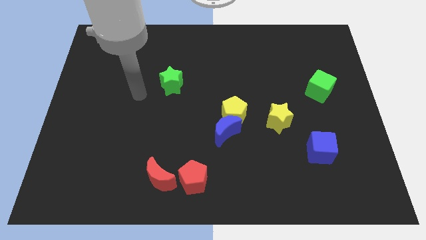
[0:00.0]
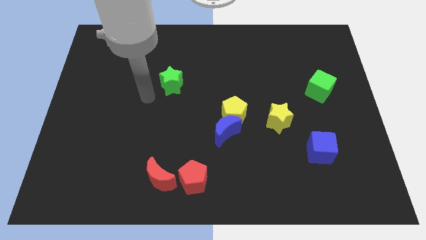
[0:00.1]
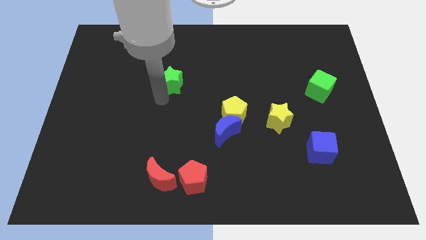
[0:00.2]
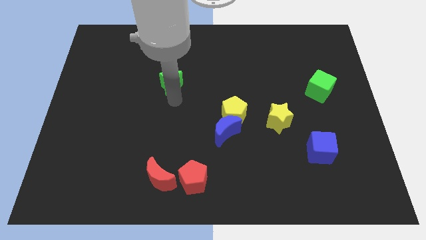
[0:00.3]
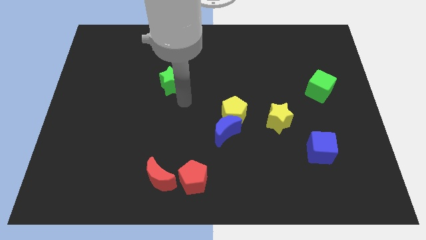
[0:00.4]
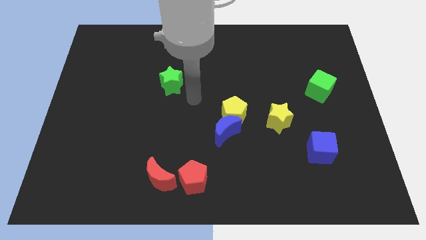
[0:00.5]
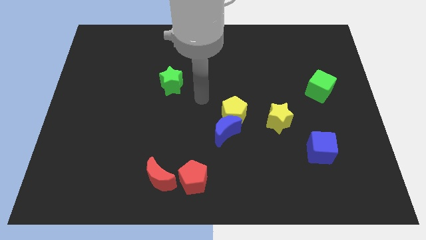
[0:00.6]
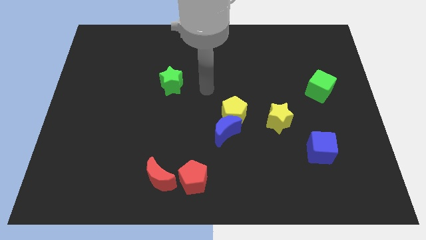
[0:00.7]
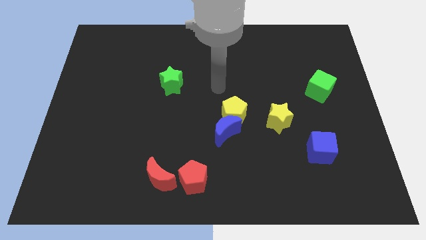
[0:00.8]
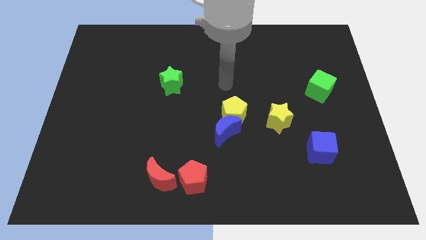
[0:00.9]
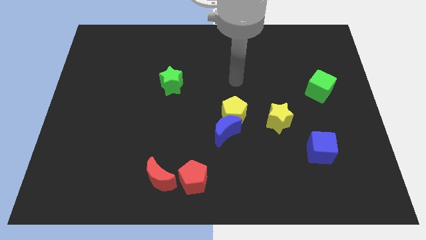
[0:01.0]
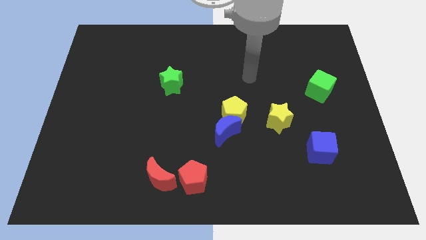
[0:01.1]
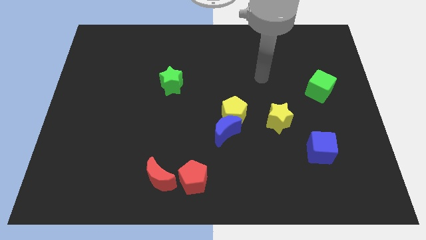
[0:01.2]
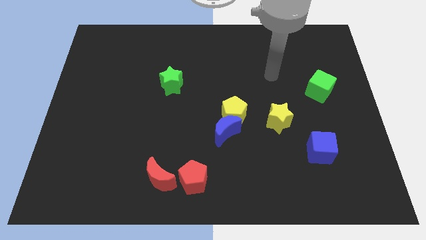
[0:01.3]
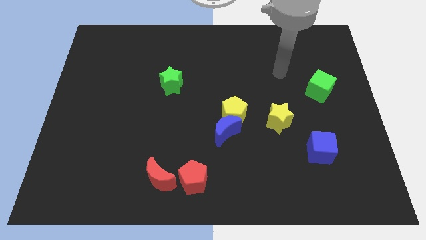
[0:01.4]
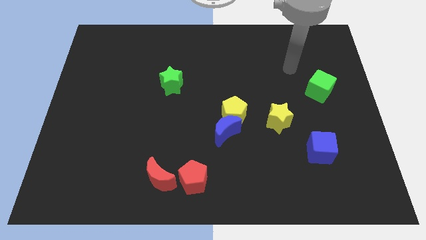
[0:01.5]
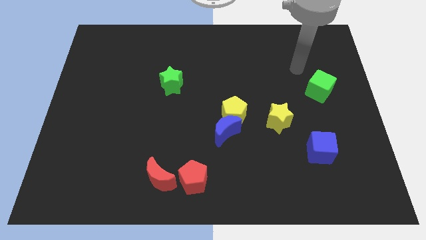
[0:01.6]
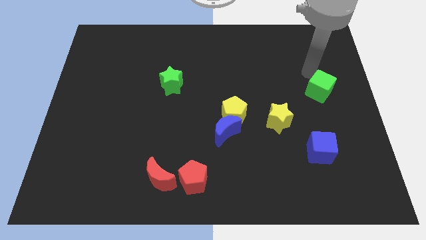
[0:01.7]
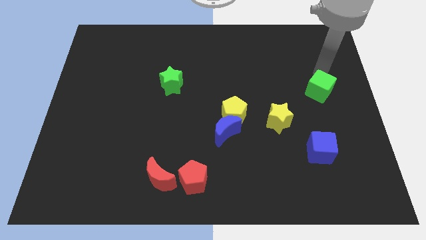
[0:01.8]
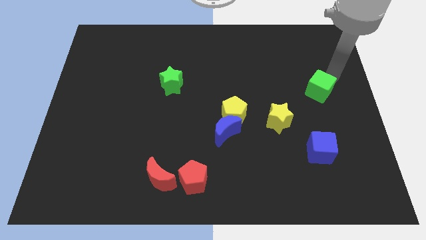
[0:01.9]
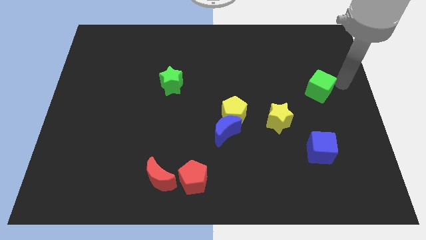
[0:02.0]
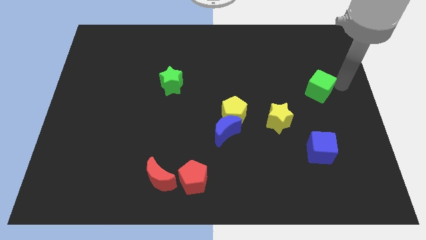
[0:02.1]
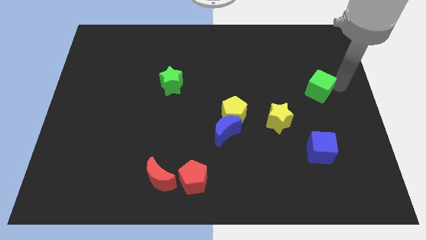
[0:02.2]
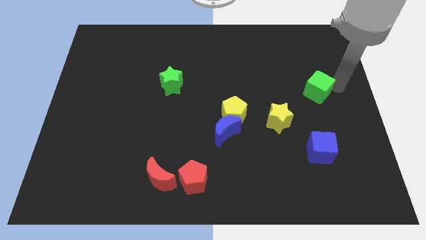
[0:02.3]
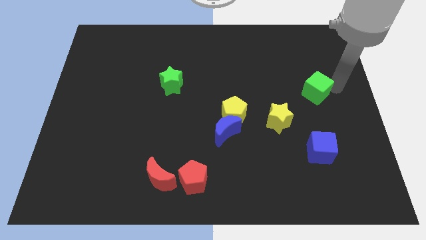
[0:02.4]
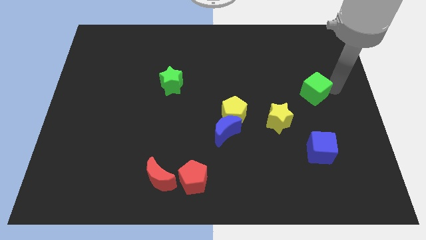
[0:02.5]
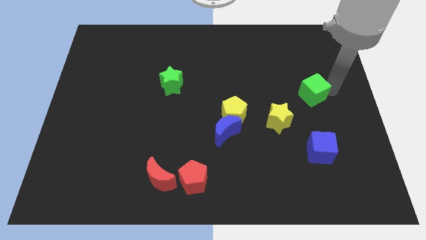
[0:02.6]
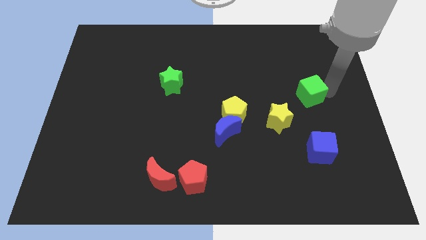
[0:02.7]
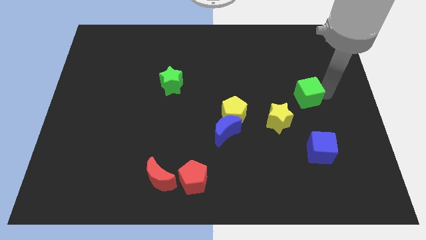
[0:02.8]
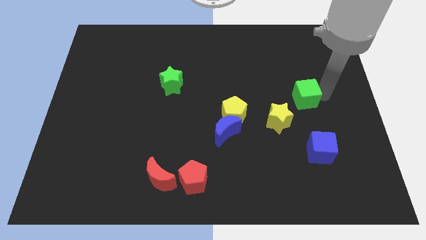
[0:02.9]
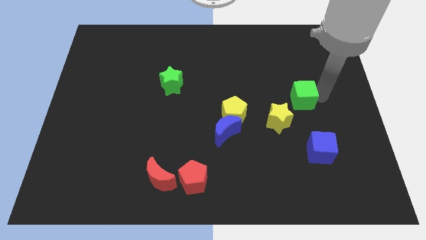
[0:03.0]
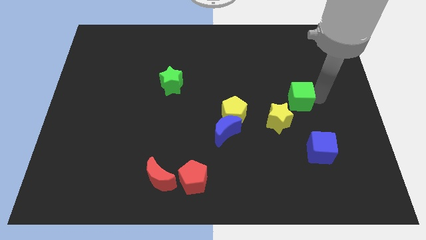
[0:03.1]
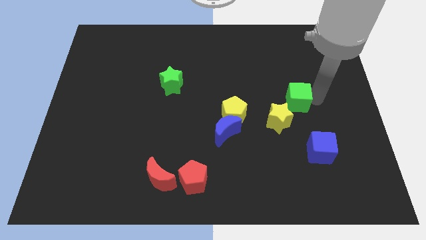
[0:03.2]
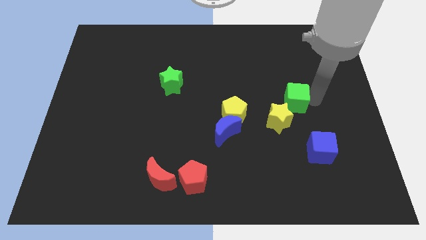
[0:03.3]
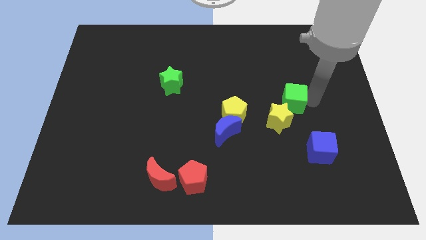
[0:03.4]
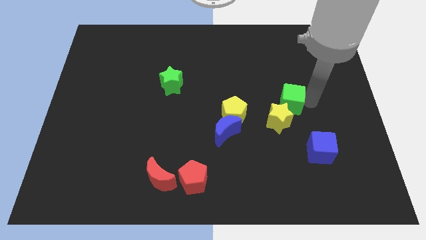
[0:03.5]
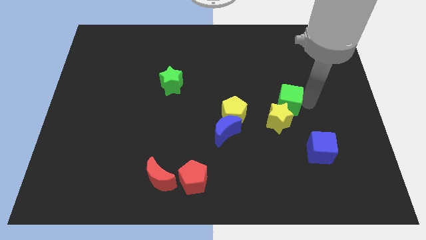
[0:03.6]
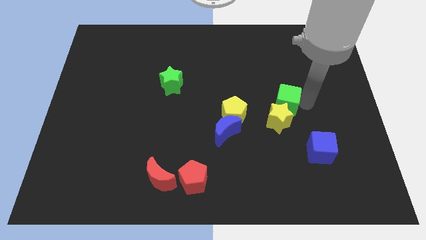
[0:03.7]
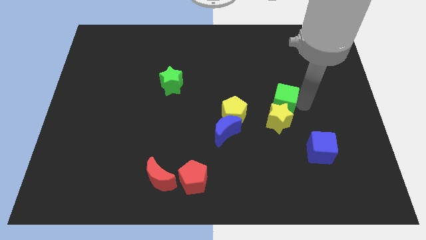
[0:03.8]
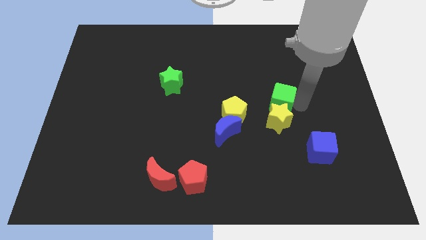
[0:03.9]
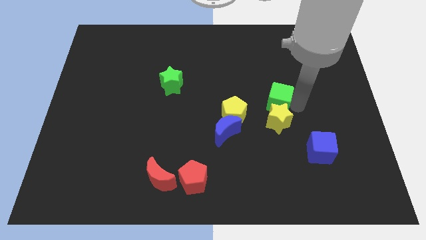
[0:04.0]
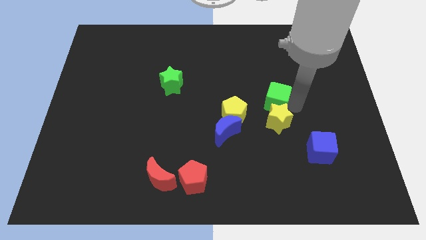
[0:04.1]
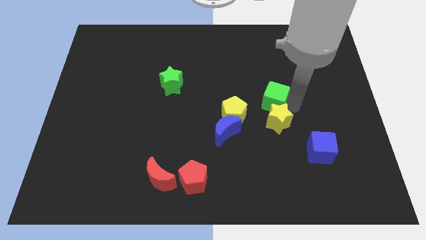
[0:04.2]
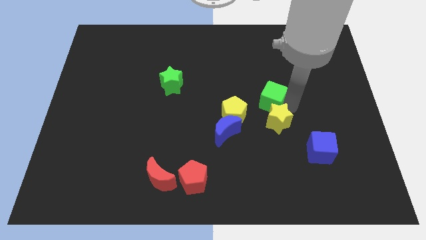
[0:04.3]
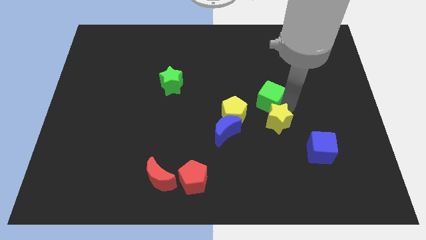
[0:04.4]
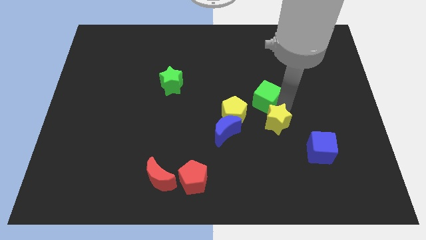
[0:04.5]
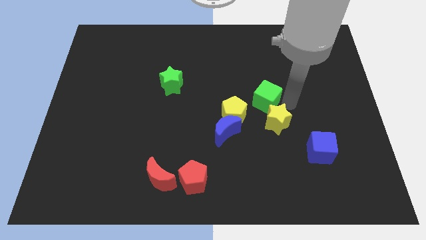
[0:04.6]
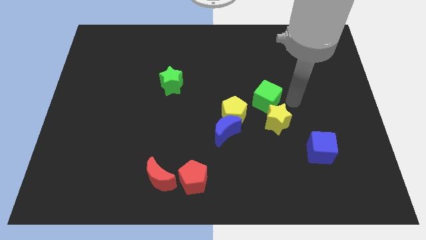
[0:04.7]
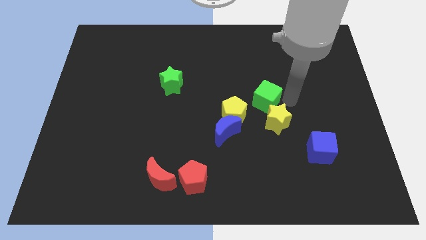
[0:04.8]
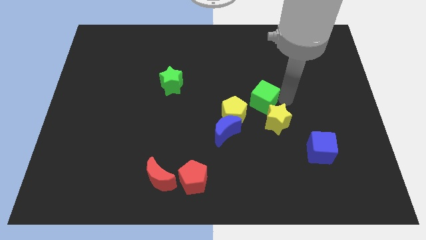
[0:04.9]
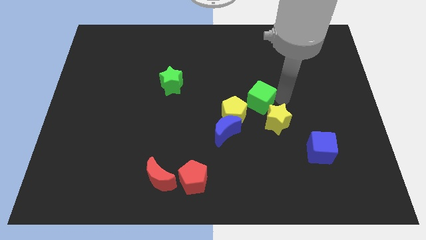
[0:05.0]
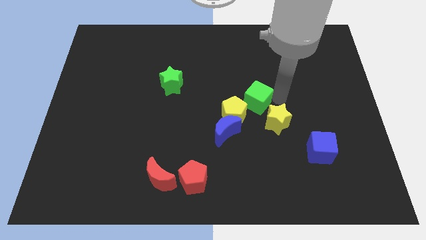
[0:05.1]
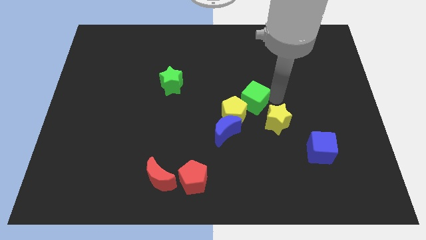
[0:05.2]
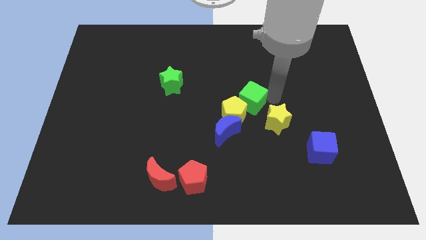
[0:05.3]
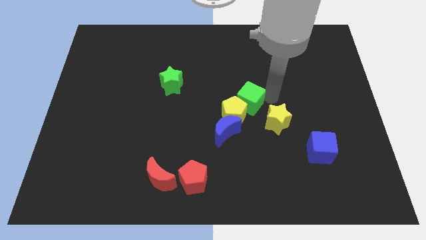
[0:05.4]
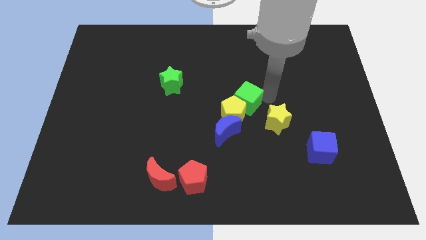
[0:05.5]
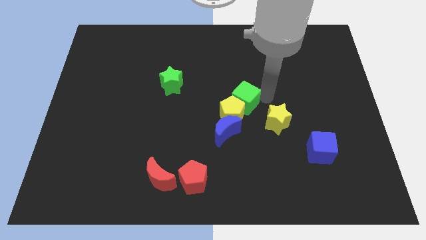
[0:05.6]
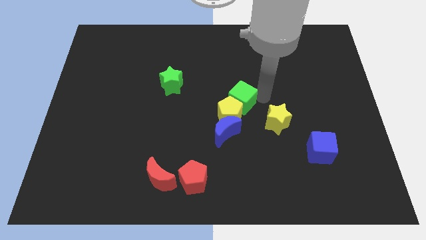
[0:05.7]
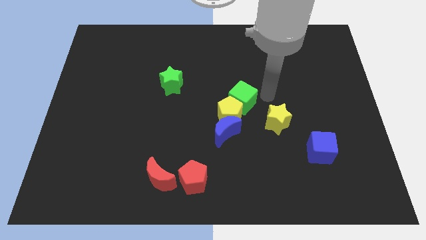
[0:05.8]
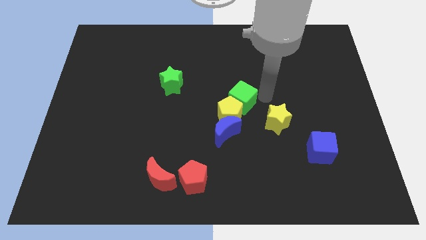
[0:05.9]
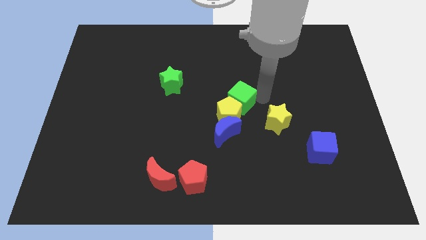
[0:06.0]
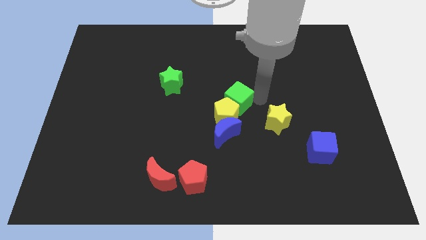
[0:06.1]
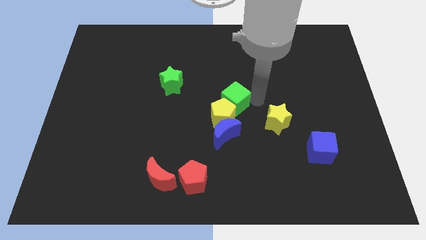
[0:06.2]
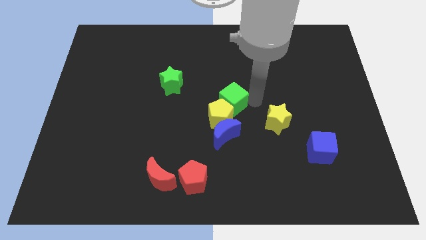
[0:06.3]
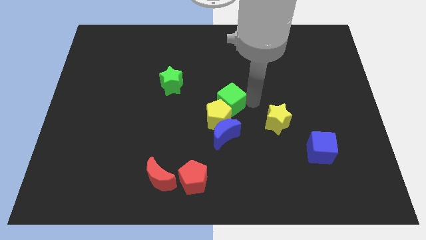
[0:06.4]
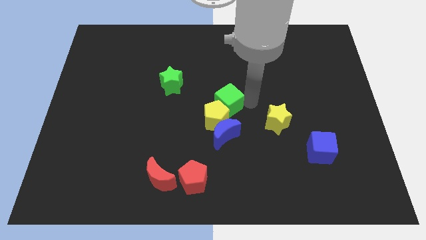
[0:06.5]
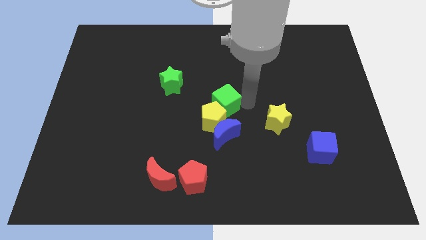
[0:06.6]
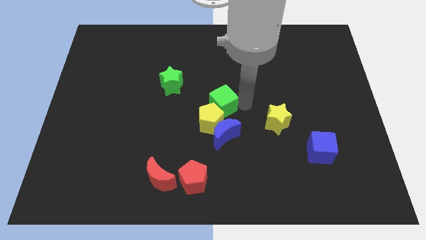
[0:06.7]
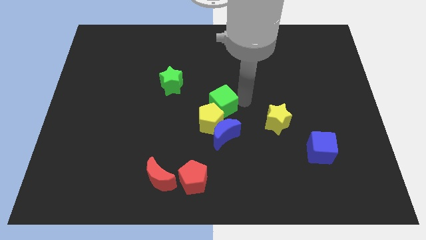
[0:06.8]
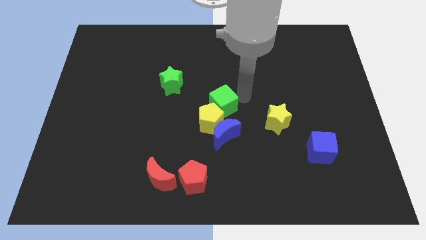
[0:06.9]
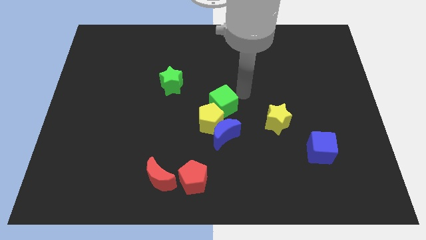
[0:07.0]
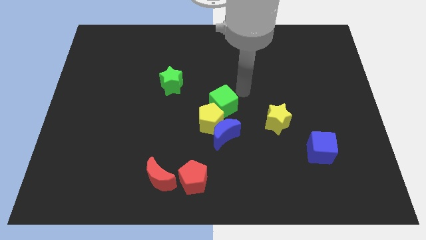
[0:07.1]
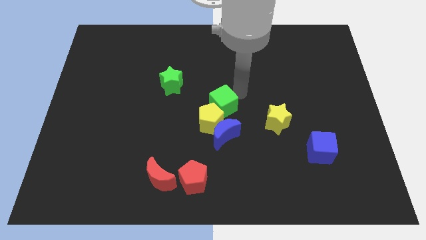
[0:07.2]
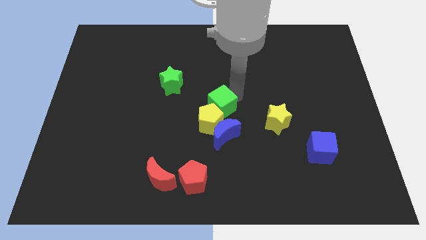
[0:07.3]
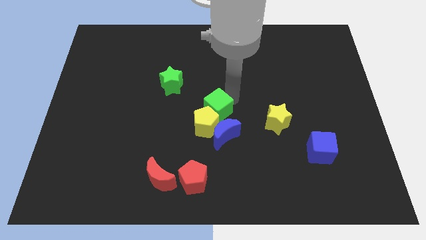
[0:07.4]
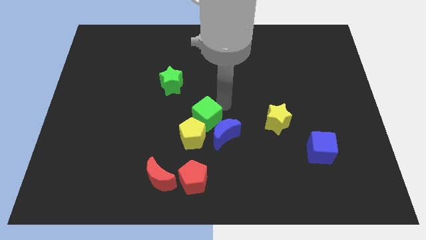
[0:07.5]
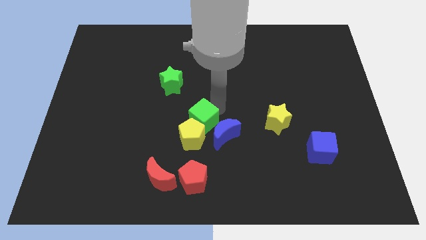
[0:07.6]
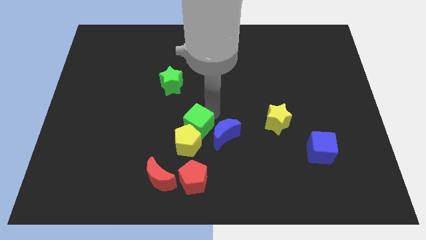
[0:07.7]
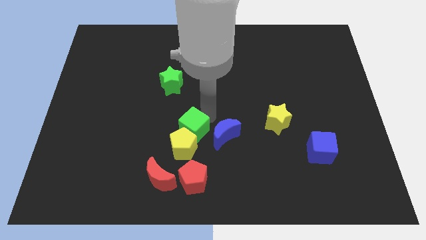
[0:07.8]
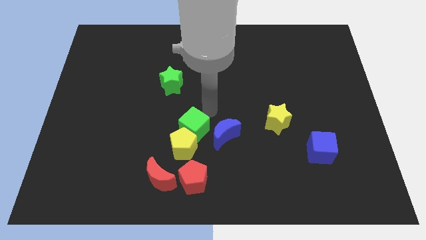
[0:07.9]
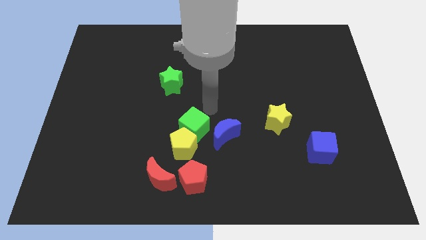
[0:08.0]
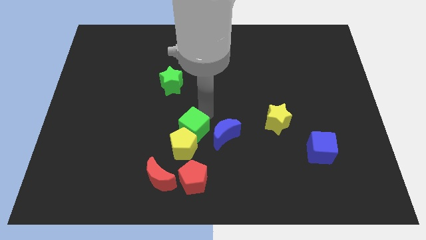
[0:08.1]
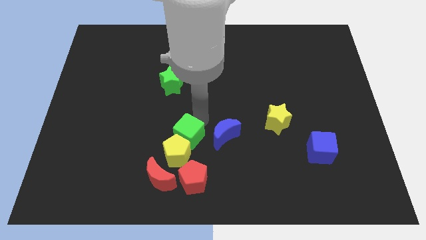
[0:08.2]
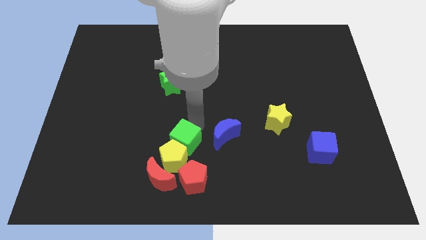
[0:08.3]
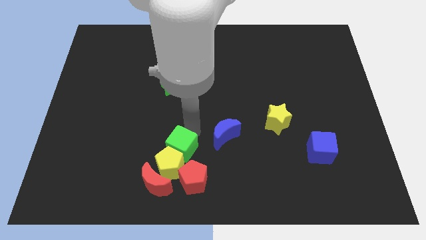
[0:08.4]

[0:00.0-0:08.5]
push the green cube to the top left side of the red pentagon
